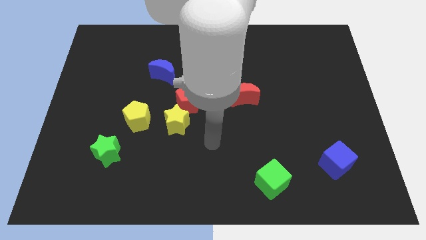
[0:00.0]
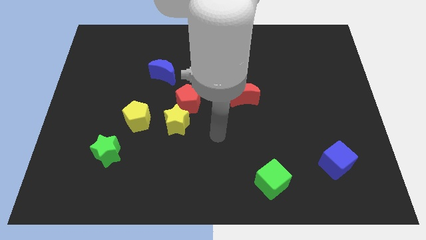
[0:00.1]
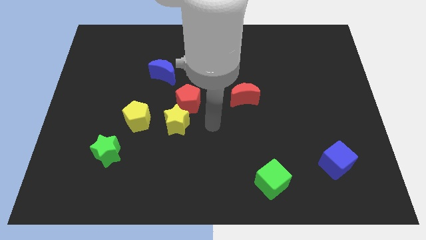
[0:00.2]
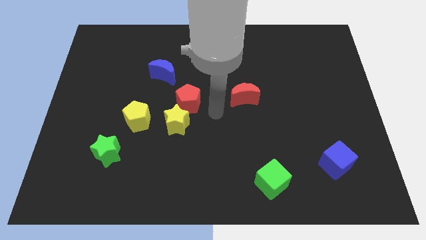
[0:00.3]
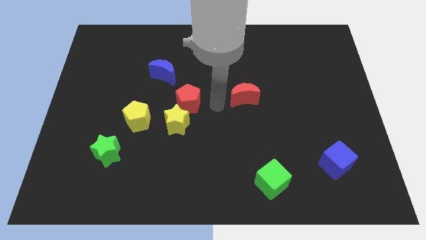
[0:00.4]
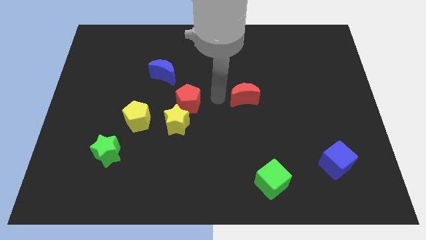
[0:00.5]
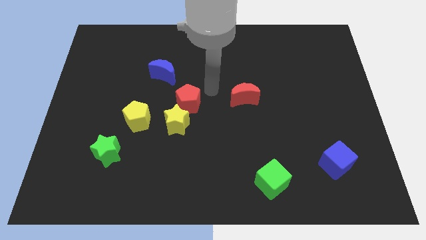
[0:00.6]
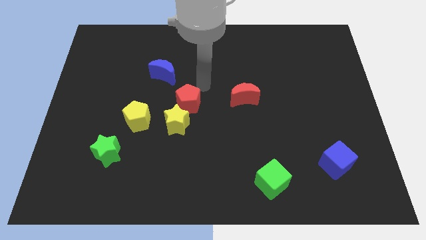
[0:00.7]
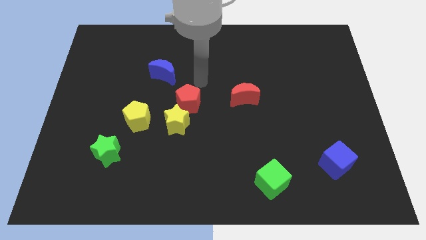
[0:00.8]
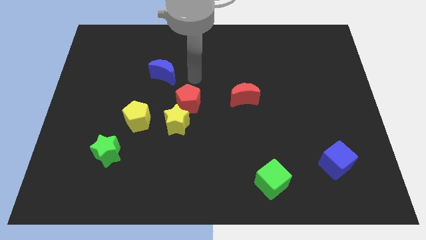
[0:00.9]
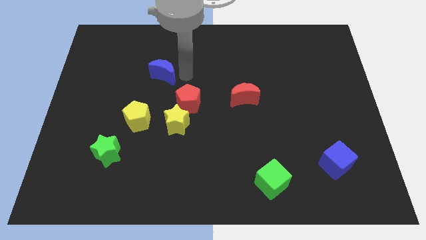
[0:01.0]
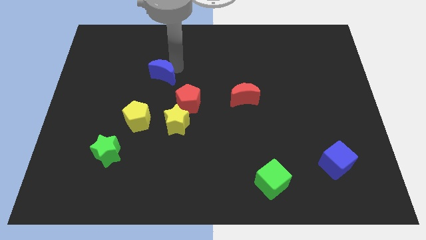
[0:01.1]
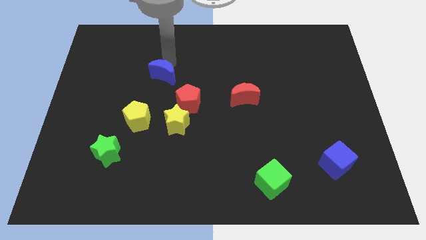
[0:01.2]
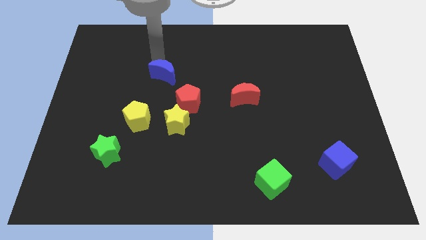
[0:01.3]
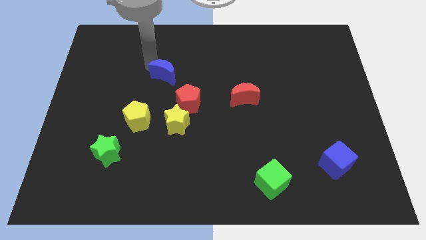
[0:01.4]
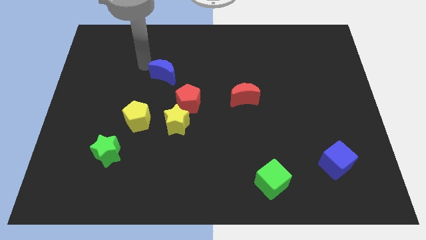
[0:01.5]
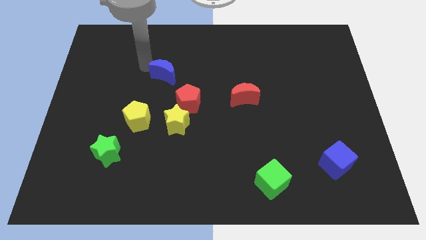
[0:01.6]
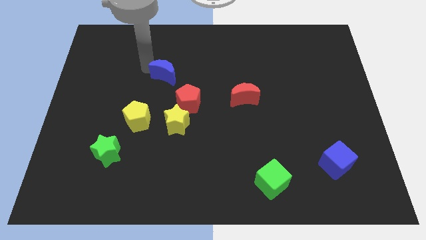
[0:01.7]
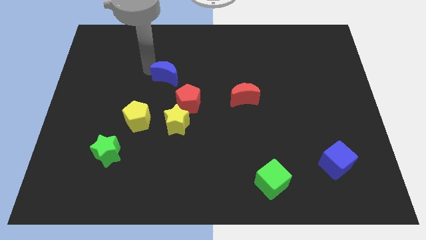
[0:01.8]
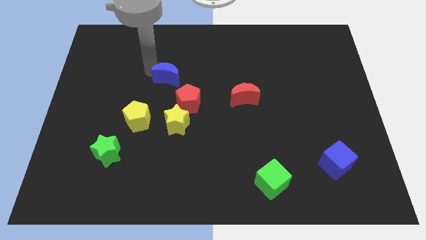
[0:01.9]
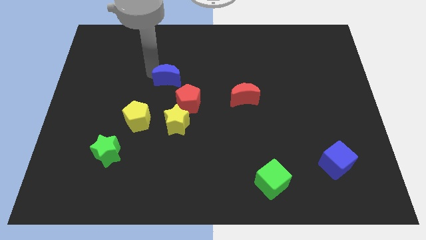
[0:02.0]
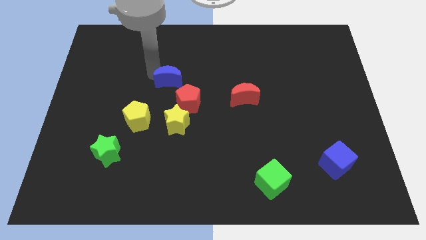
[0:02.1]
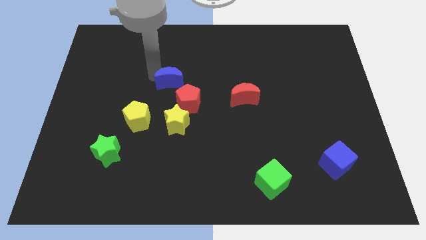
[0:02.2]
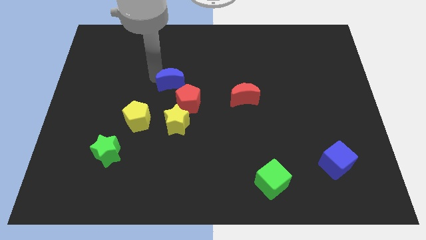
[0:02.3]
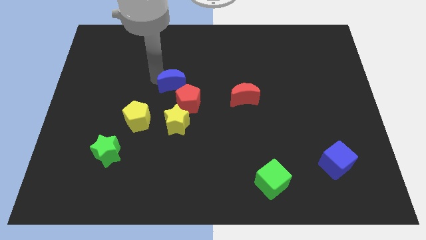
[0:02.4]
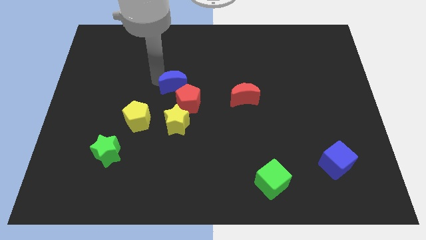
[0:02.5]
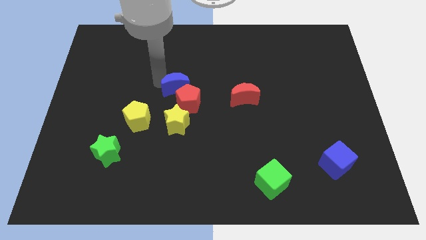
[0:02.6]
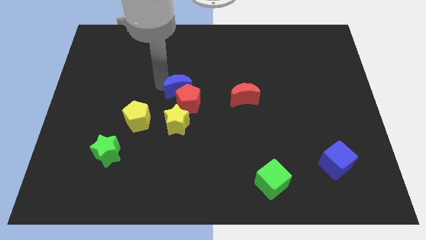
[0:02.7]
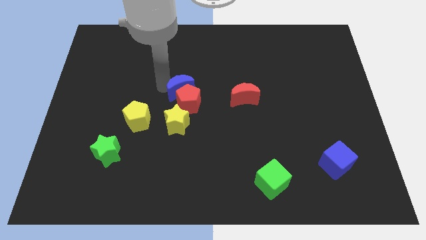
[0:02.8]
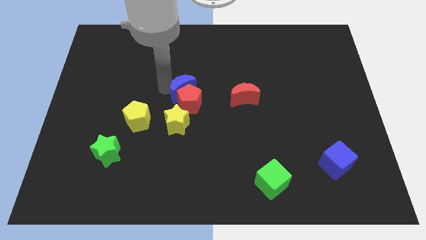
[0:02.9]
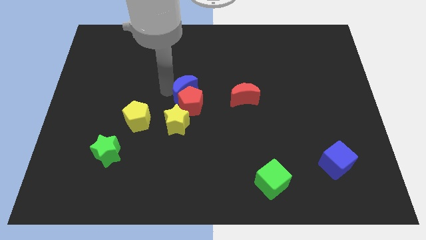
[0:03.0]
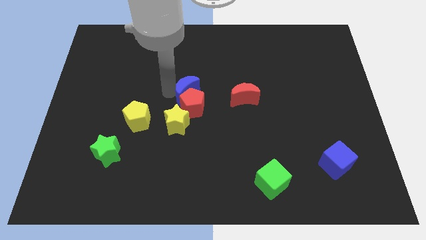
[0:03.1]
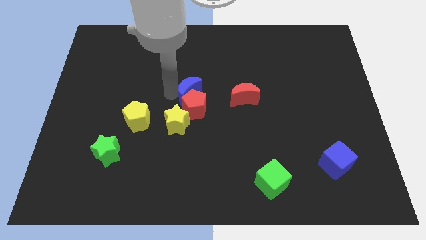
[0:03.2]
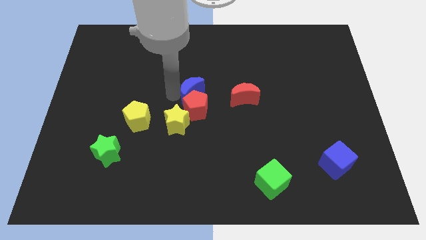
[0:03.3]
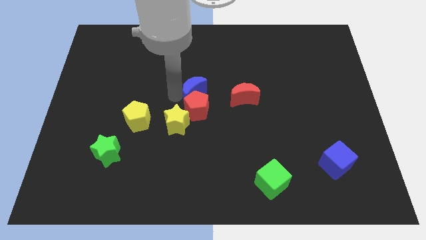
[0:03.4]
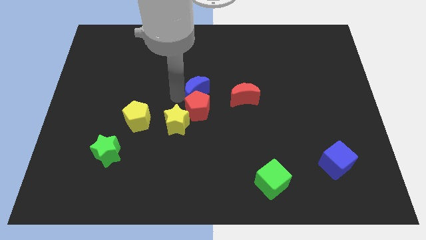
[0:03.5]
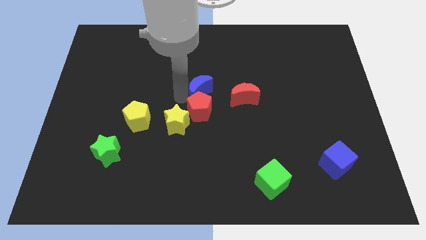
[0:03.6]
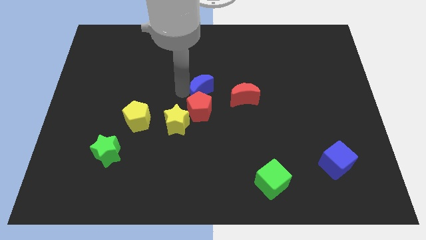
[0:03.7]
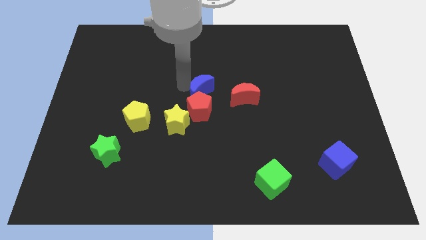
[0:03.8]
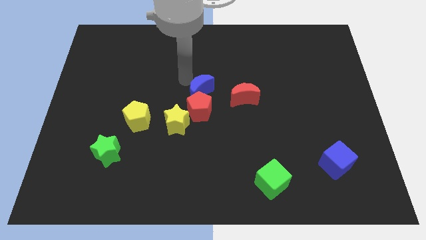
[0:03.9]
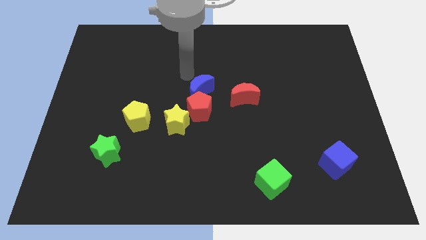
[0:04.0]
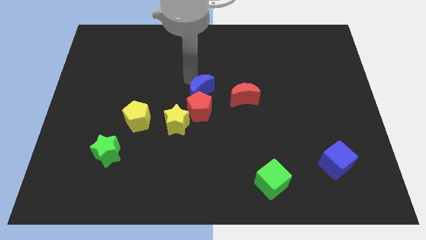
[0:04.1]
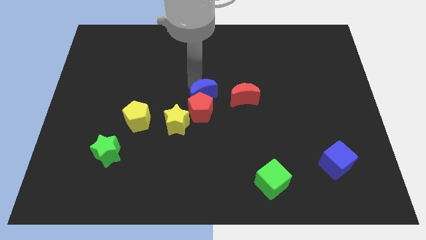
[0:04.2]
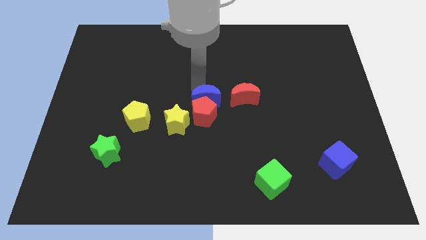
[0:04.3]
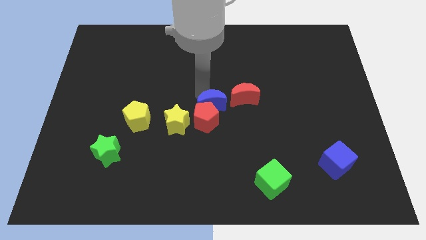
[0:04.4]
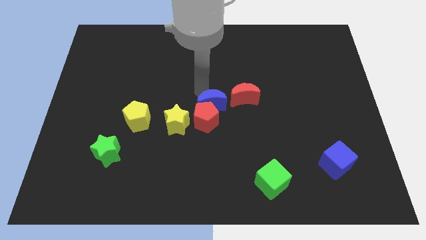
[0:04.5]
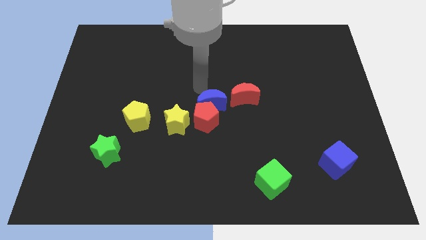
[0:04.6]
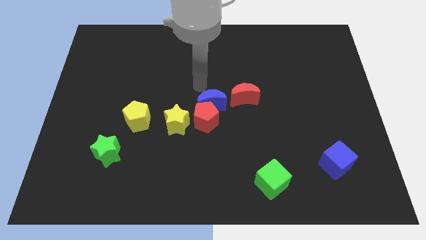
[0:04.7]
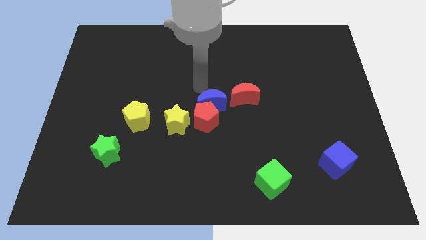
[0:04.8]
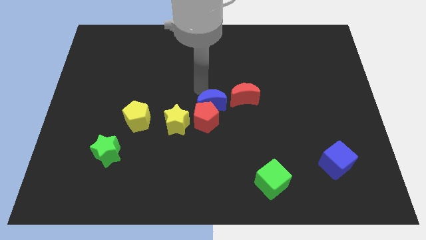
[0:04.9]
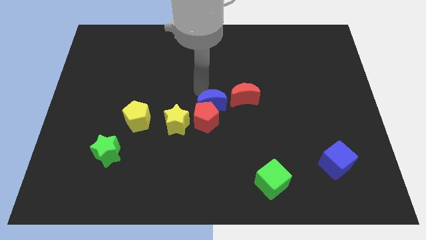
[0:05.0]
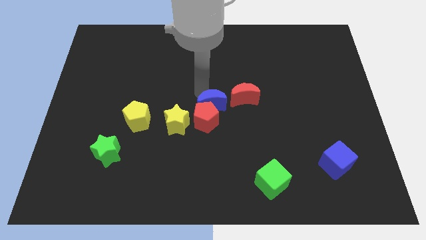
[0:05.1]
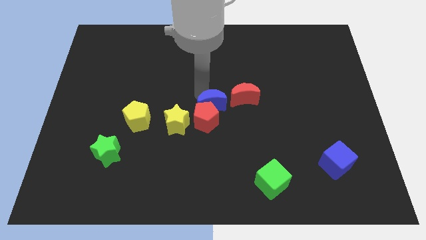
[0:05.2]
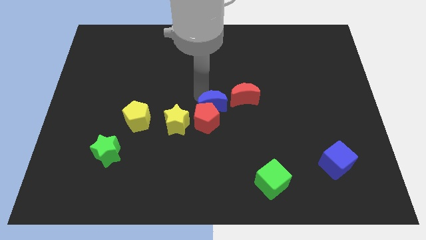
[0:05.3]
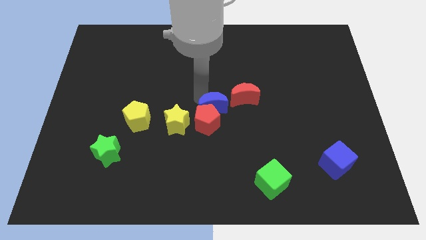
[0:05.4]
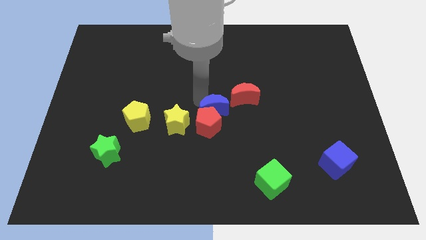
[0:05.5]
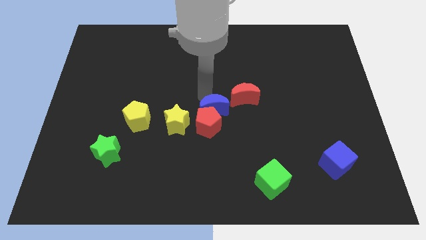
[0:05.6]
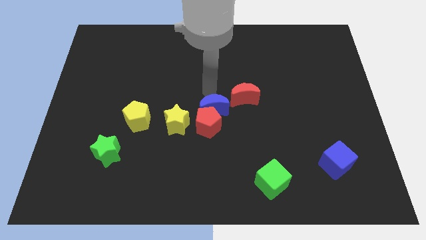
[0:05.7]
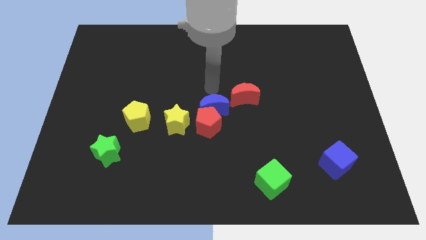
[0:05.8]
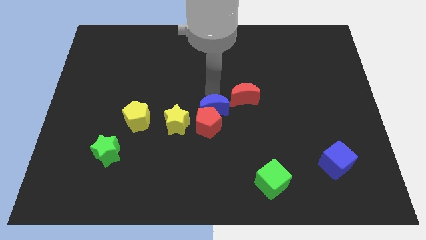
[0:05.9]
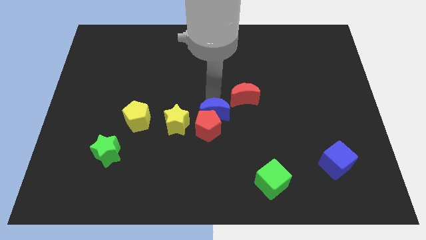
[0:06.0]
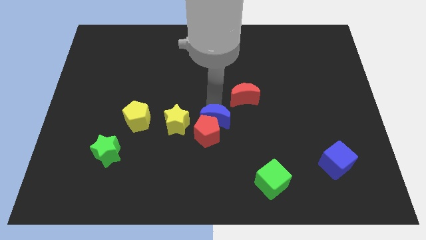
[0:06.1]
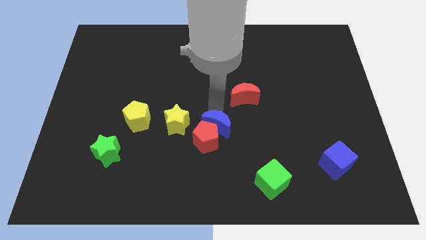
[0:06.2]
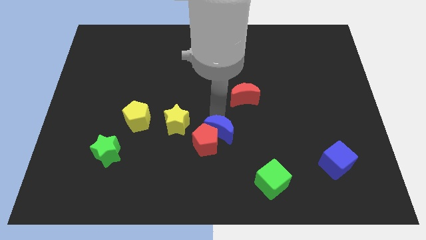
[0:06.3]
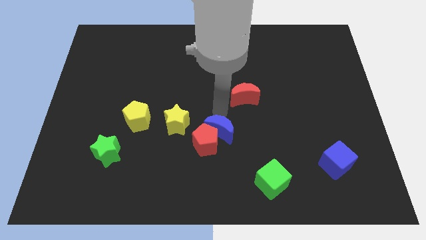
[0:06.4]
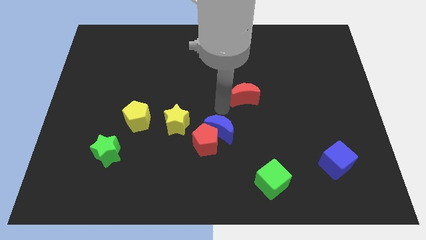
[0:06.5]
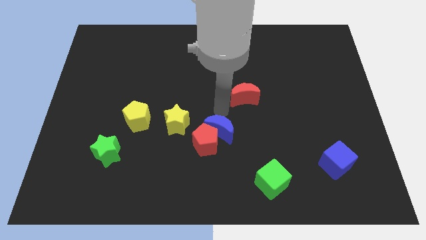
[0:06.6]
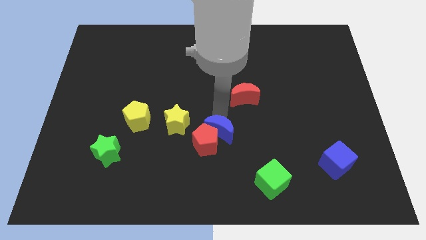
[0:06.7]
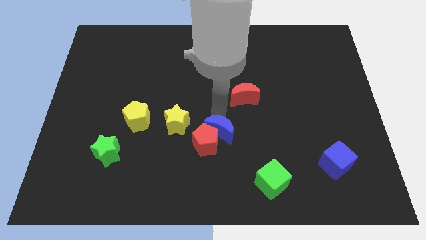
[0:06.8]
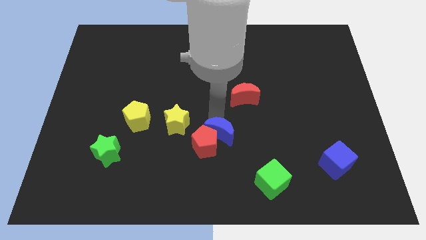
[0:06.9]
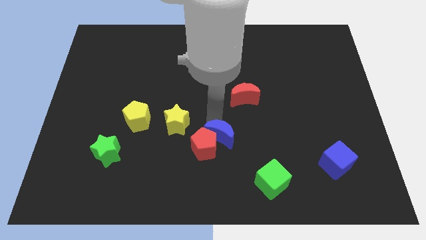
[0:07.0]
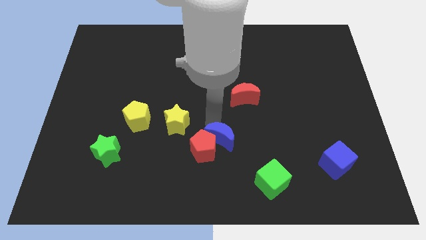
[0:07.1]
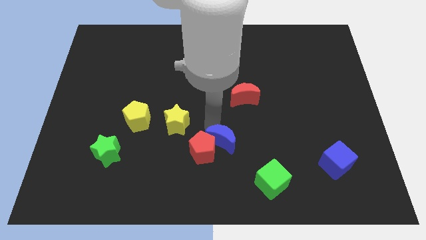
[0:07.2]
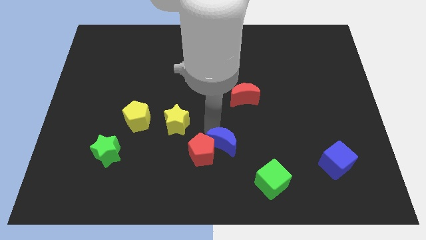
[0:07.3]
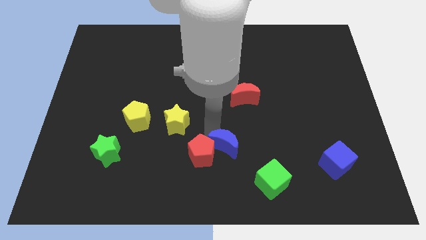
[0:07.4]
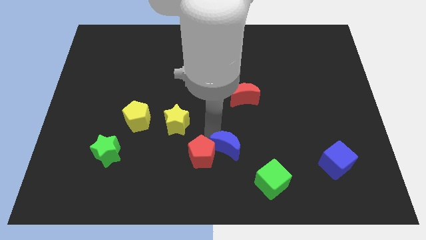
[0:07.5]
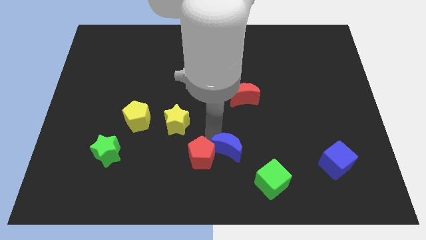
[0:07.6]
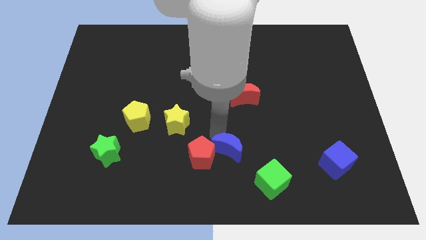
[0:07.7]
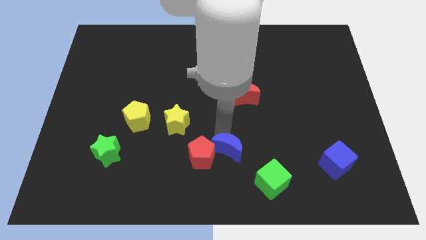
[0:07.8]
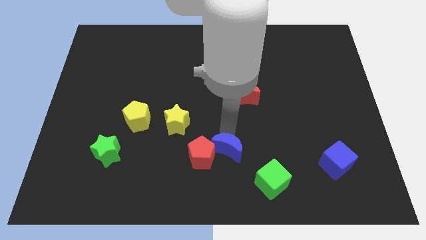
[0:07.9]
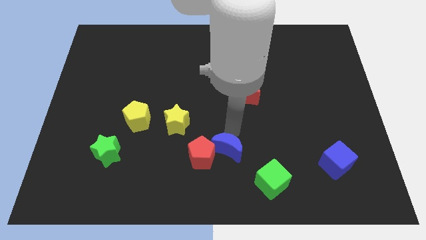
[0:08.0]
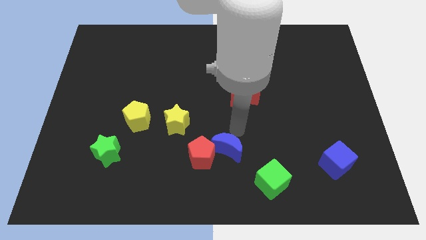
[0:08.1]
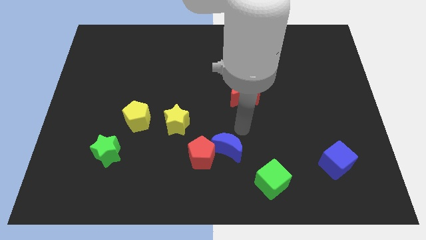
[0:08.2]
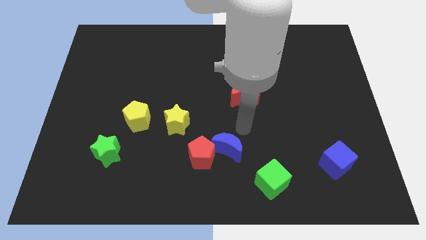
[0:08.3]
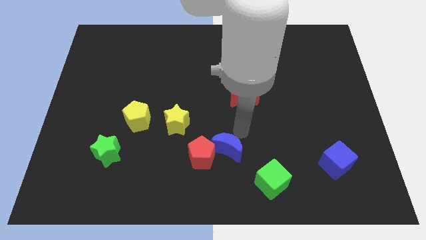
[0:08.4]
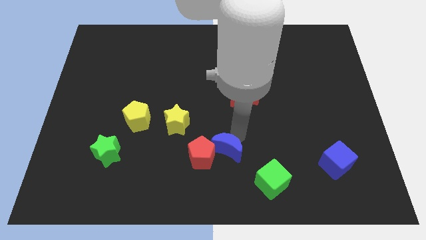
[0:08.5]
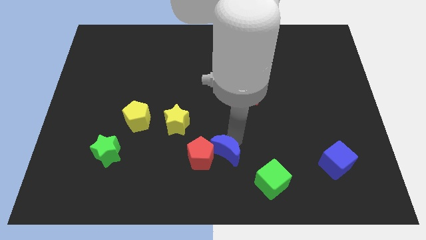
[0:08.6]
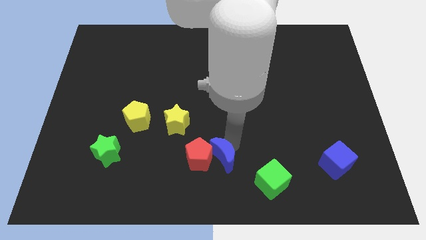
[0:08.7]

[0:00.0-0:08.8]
slide the blue moon to the bottom
